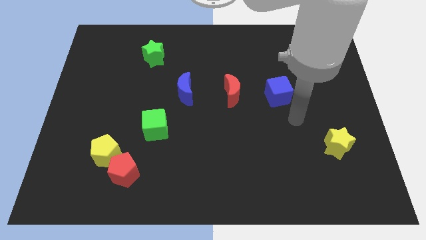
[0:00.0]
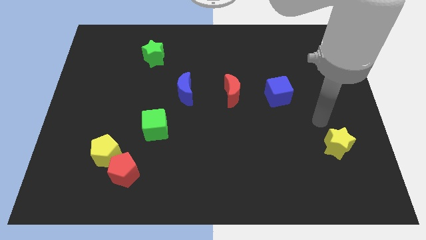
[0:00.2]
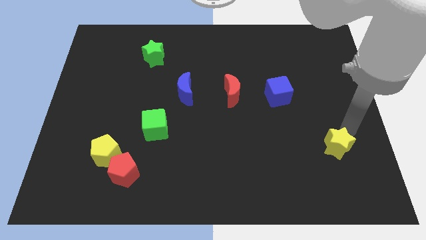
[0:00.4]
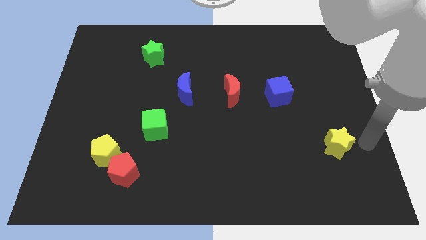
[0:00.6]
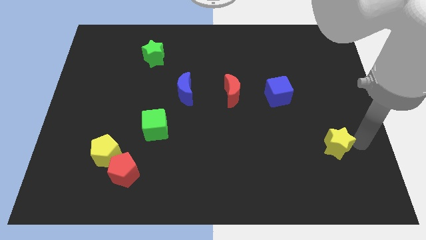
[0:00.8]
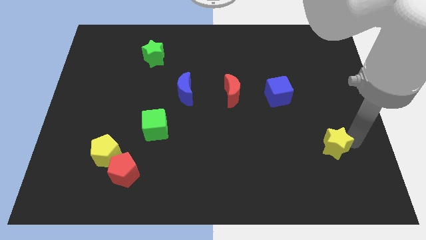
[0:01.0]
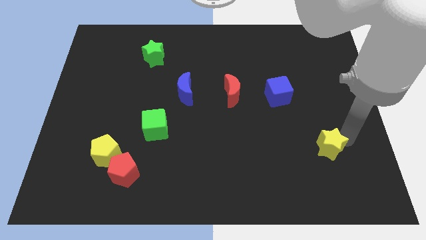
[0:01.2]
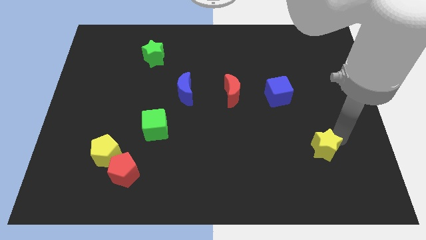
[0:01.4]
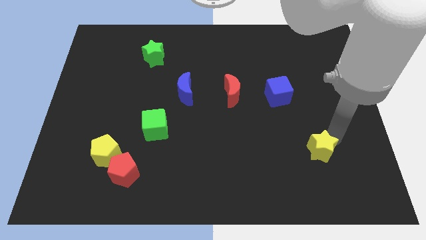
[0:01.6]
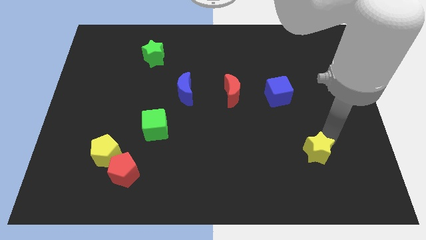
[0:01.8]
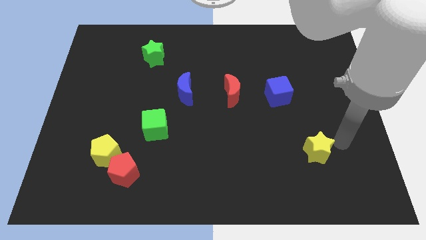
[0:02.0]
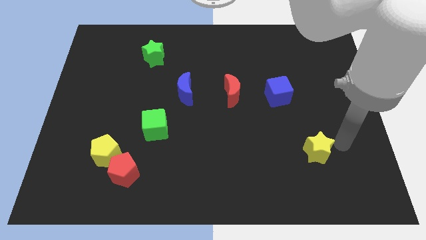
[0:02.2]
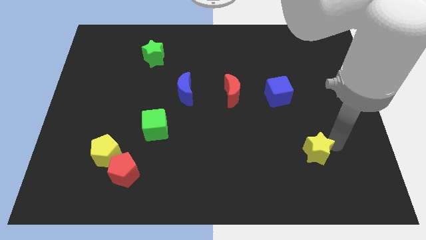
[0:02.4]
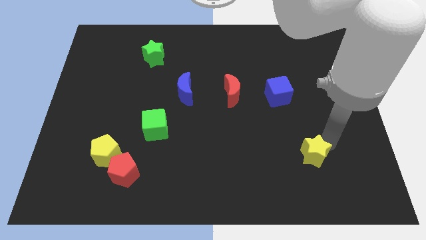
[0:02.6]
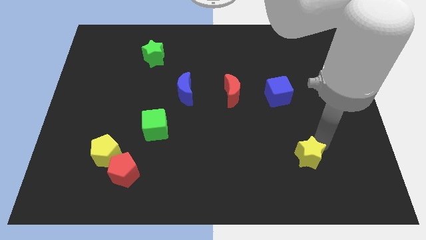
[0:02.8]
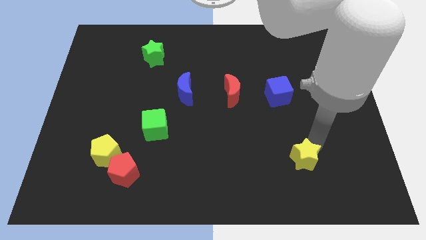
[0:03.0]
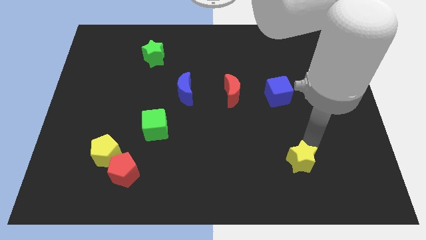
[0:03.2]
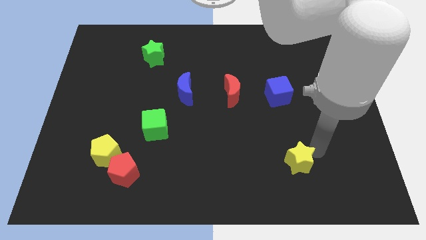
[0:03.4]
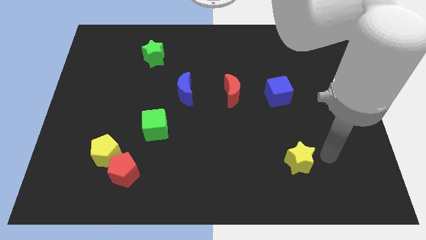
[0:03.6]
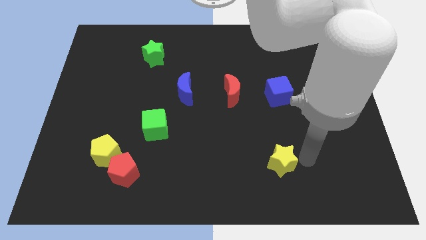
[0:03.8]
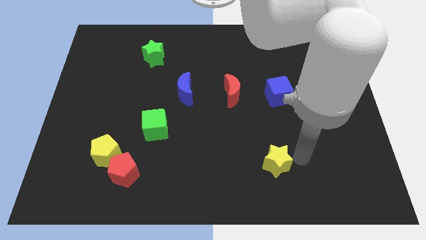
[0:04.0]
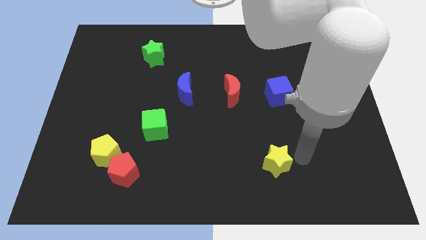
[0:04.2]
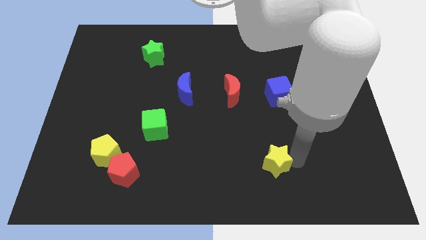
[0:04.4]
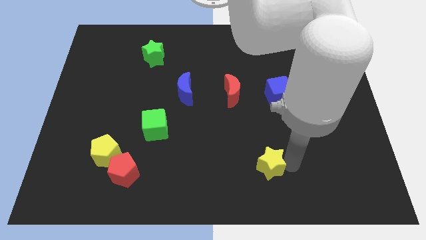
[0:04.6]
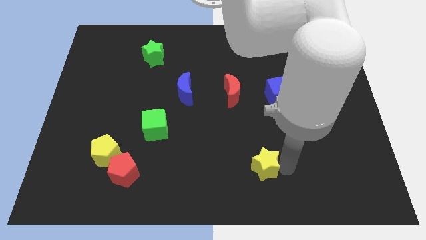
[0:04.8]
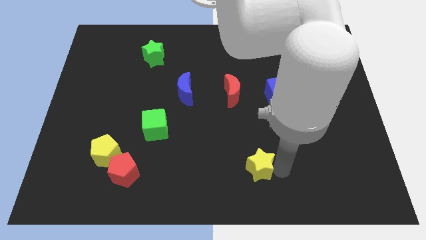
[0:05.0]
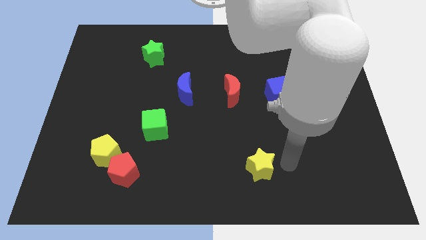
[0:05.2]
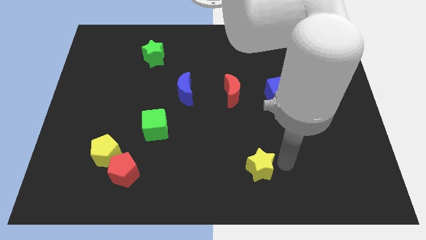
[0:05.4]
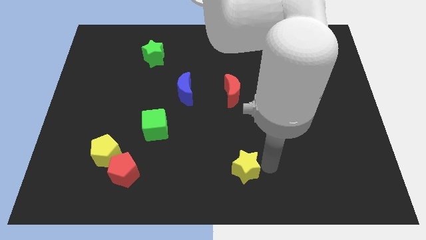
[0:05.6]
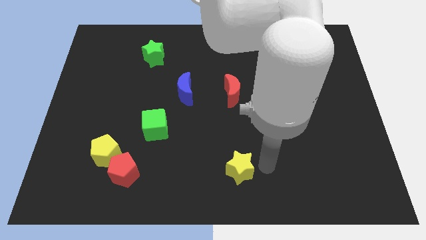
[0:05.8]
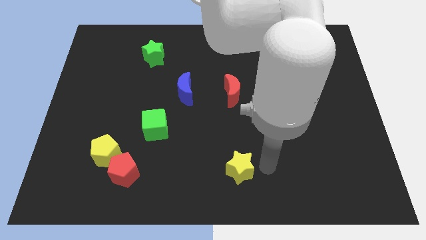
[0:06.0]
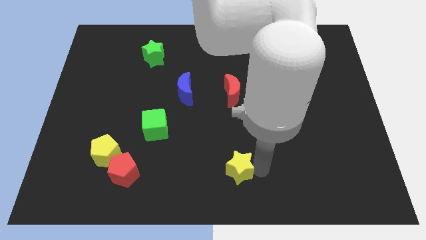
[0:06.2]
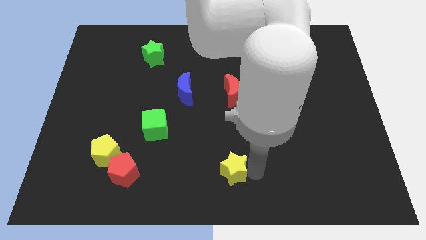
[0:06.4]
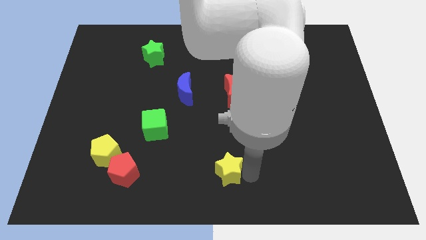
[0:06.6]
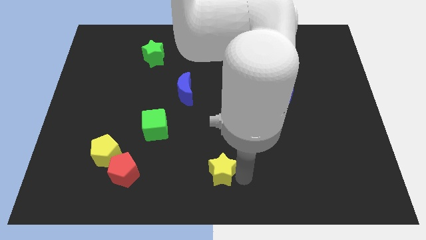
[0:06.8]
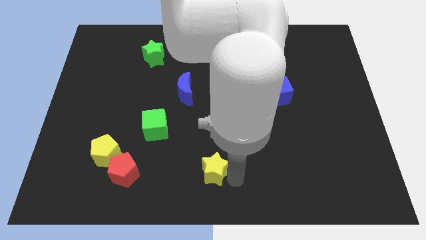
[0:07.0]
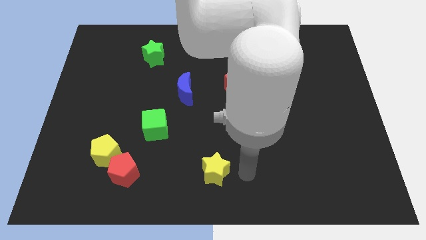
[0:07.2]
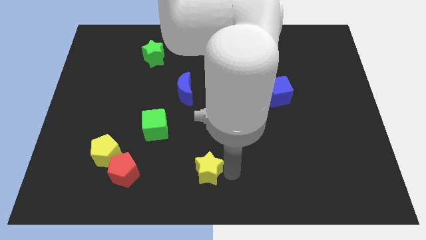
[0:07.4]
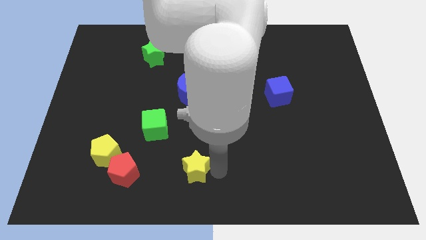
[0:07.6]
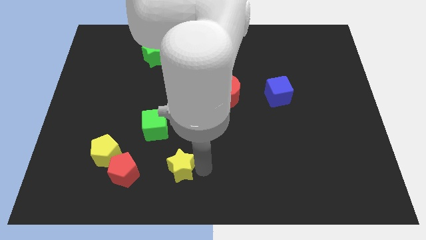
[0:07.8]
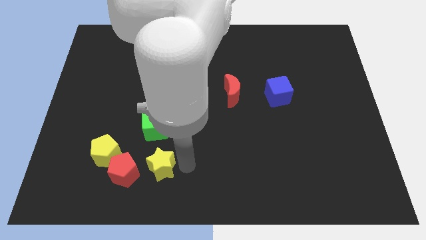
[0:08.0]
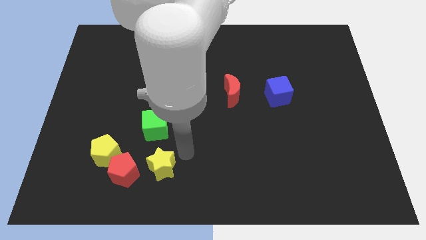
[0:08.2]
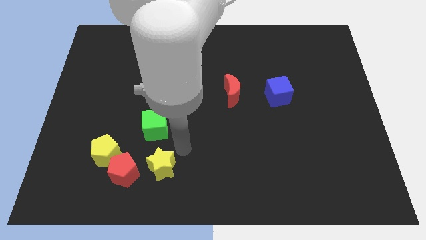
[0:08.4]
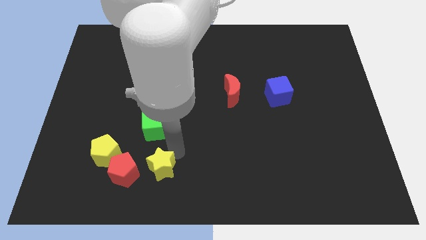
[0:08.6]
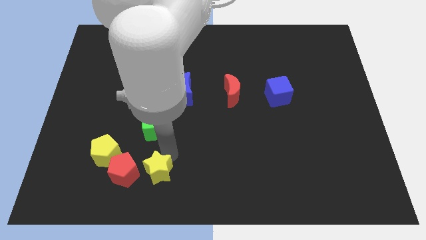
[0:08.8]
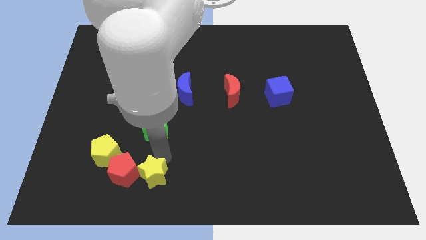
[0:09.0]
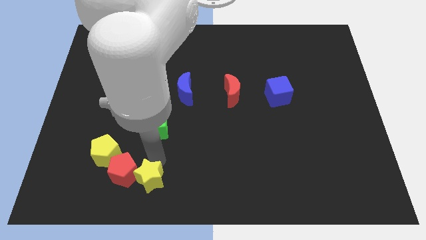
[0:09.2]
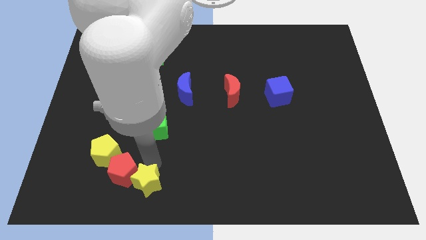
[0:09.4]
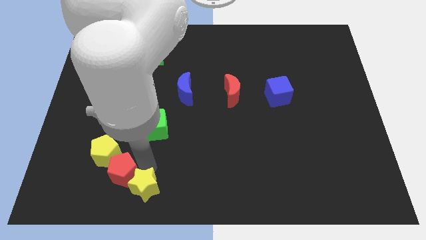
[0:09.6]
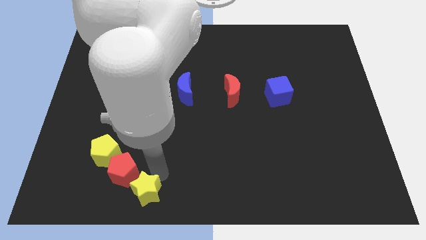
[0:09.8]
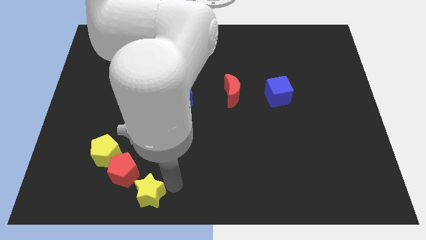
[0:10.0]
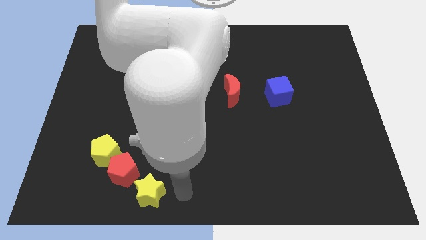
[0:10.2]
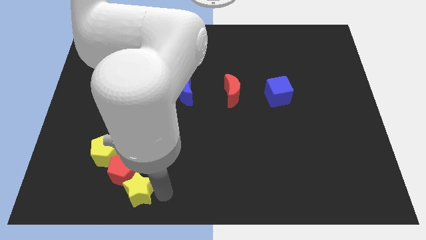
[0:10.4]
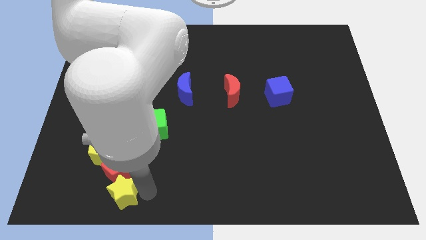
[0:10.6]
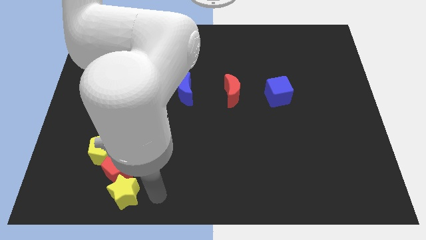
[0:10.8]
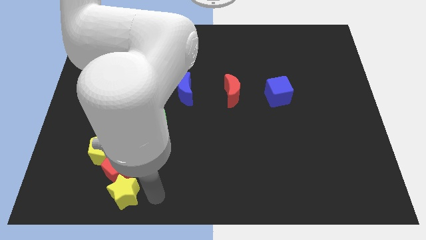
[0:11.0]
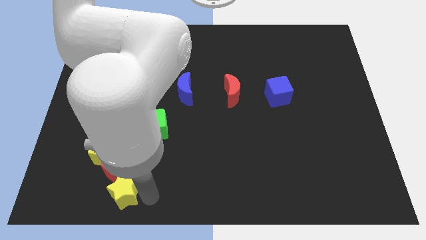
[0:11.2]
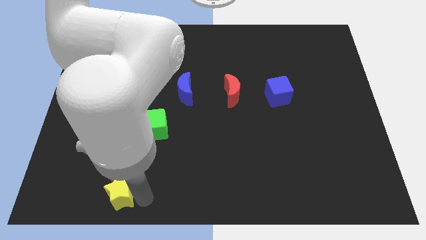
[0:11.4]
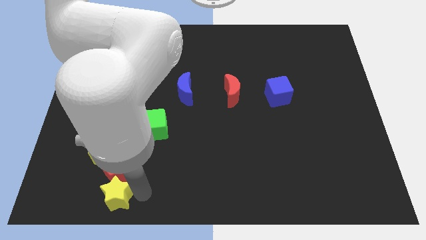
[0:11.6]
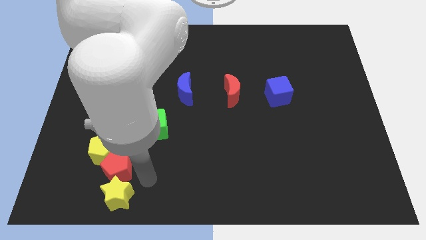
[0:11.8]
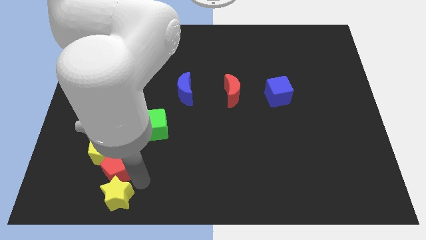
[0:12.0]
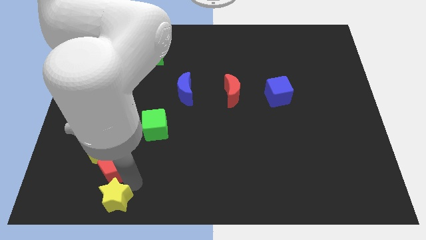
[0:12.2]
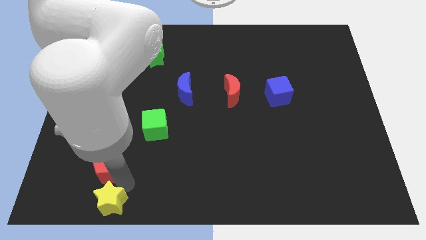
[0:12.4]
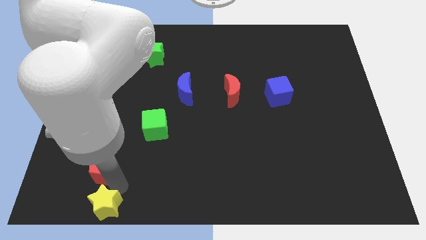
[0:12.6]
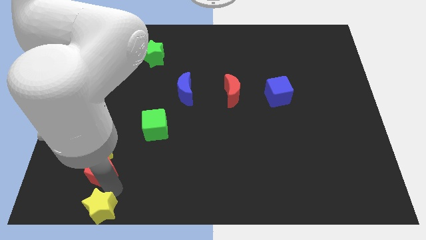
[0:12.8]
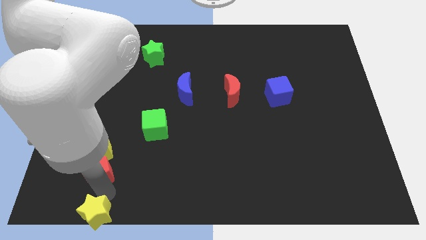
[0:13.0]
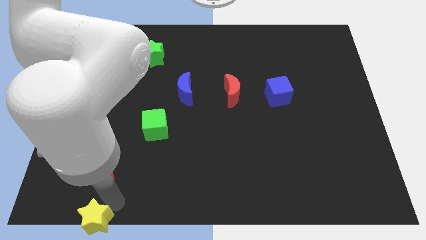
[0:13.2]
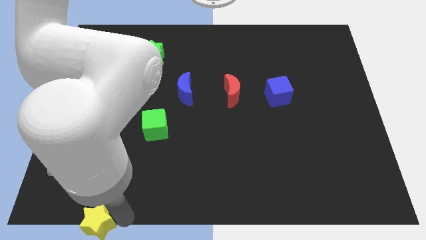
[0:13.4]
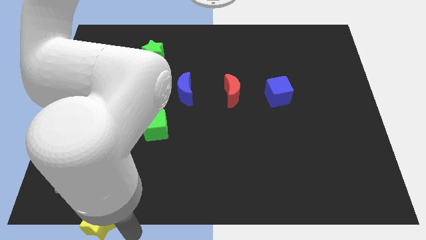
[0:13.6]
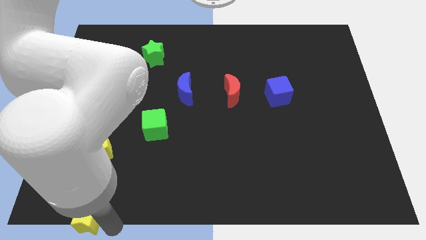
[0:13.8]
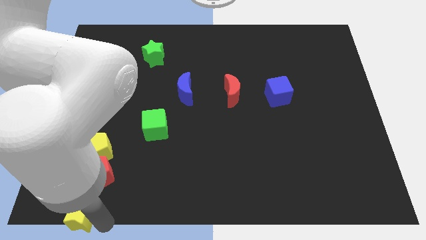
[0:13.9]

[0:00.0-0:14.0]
slide the yellow star to the lower left corner
